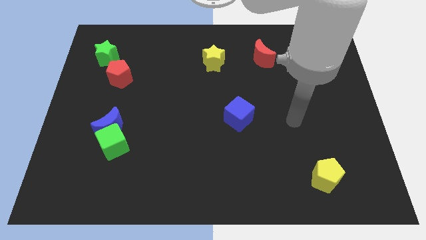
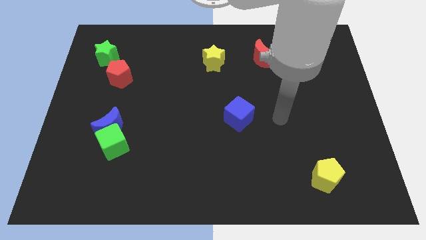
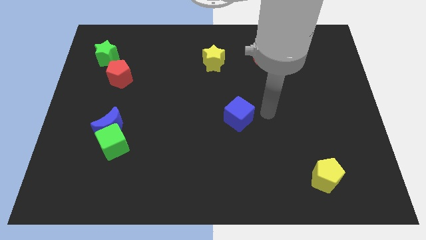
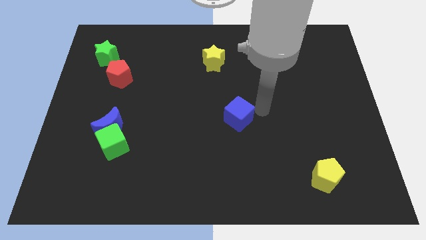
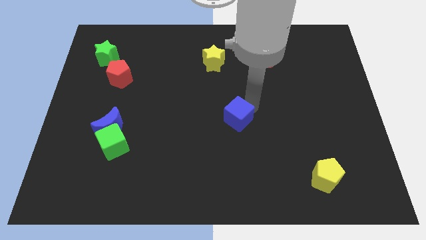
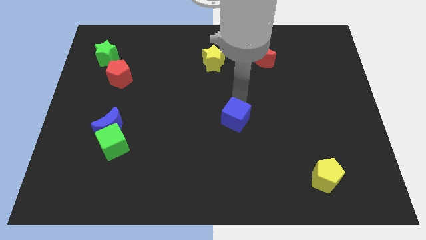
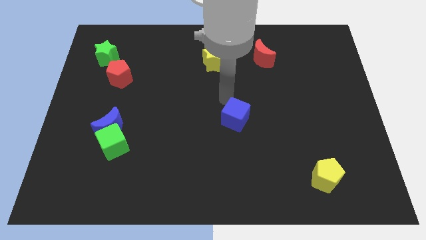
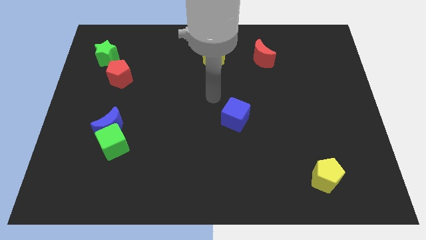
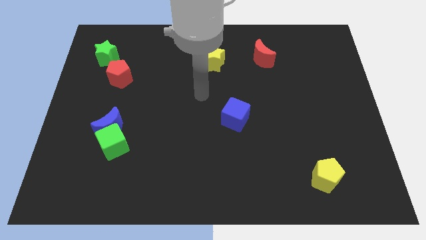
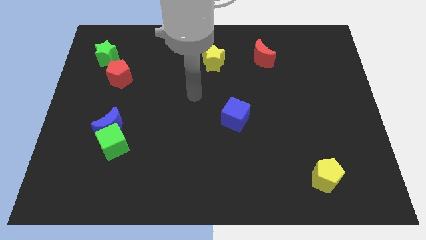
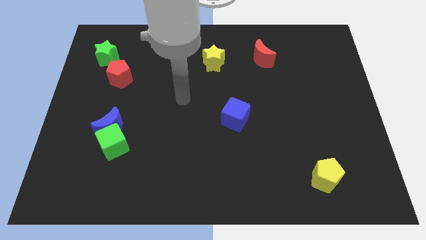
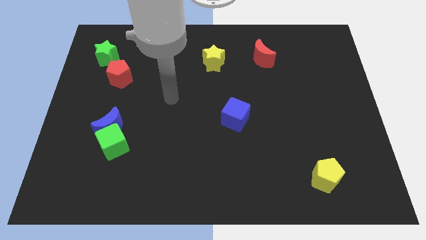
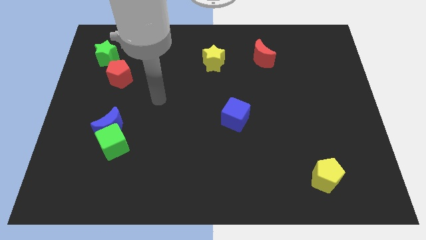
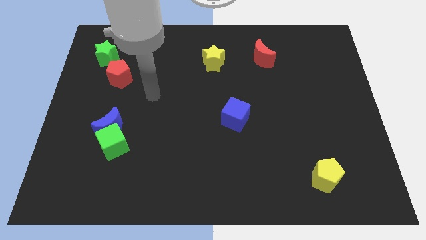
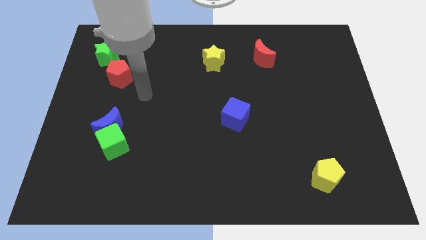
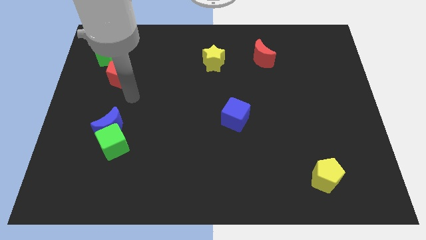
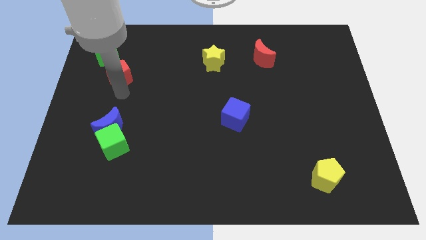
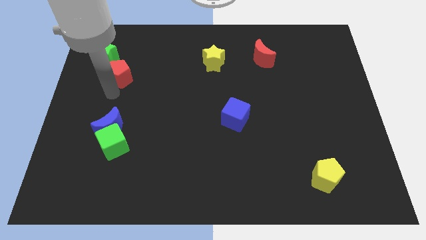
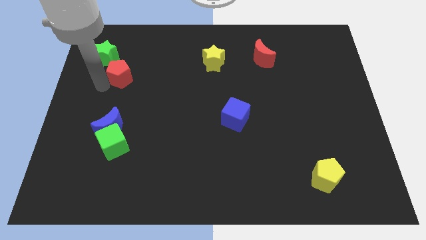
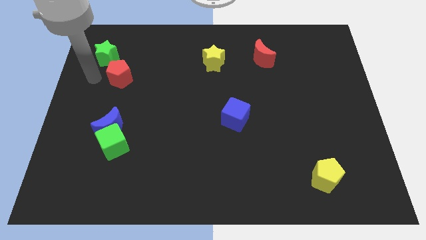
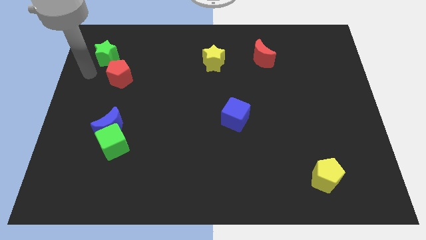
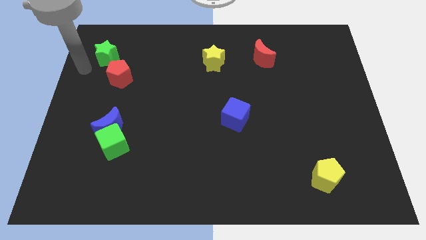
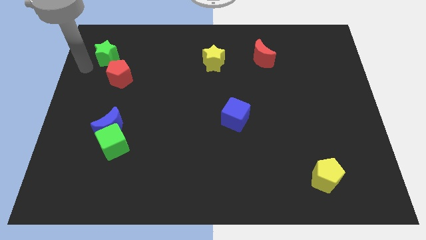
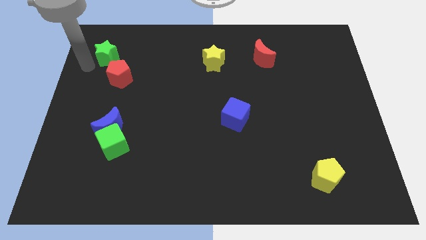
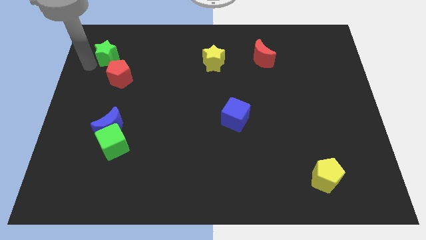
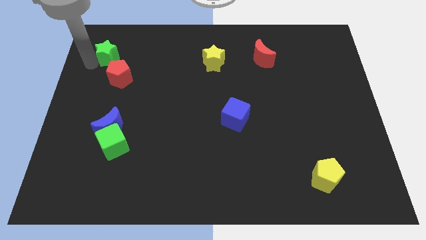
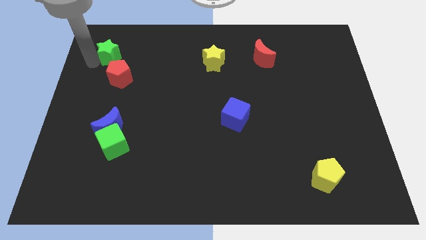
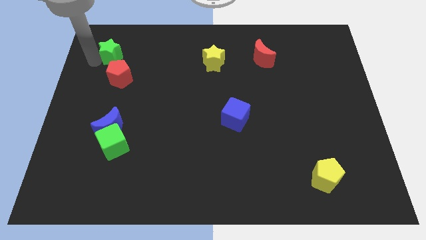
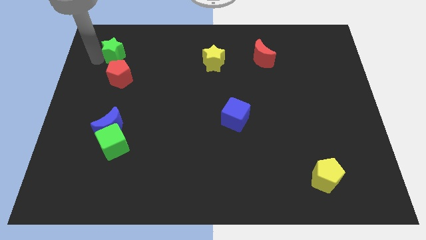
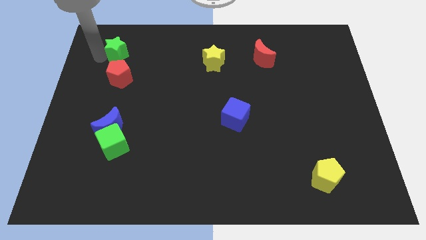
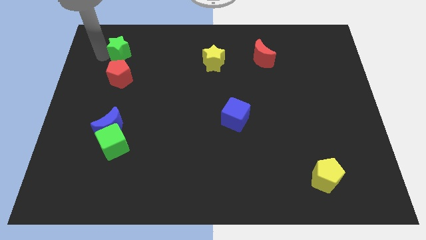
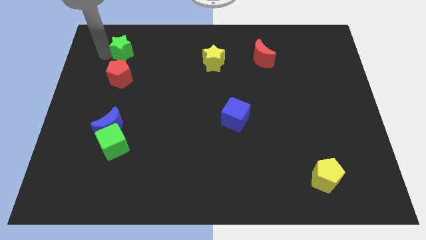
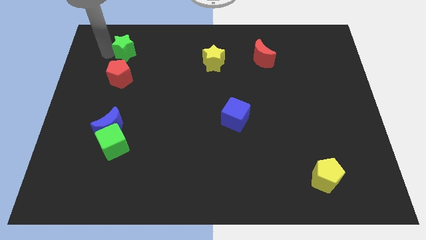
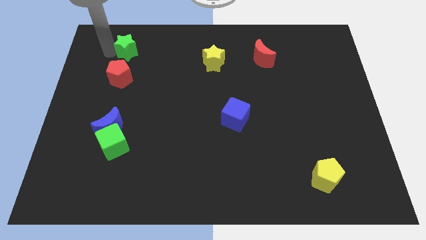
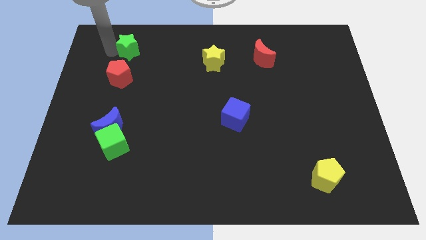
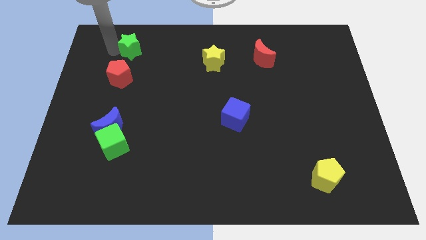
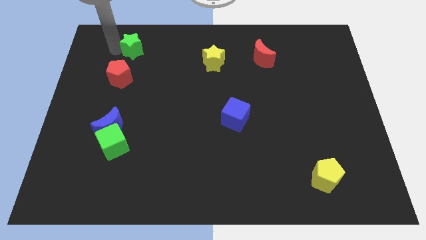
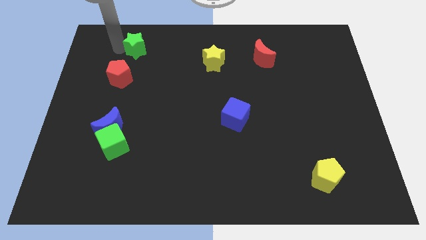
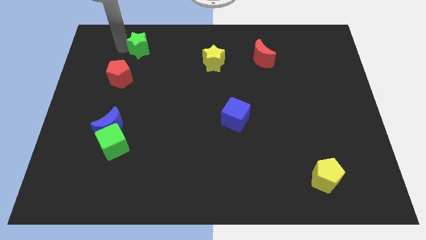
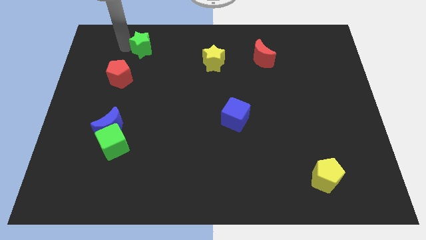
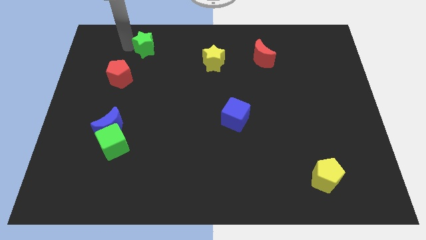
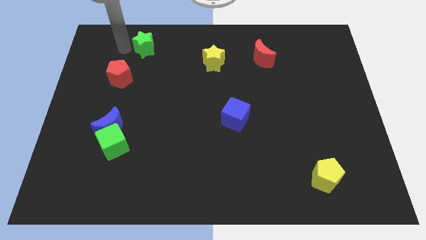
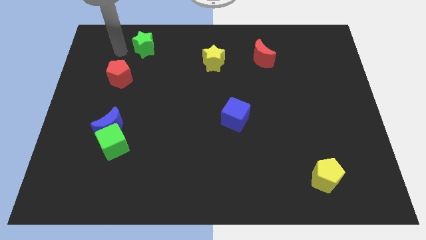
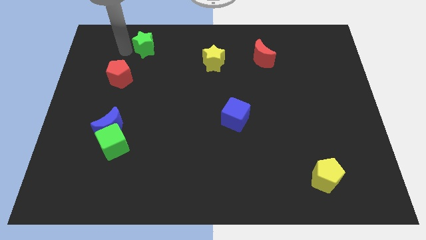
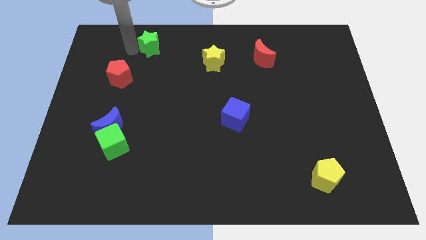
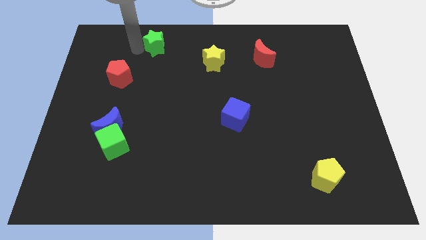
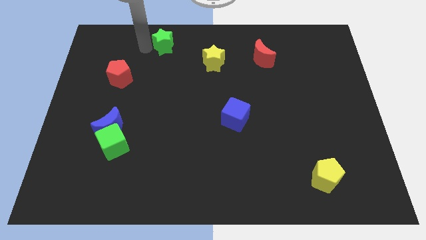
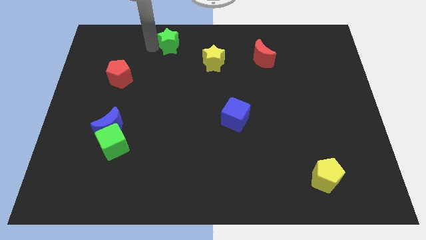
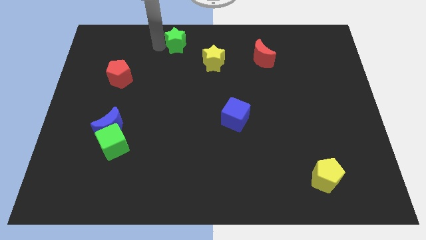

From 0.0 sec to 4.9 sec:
push the green star to the towards your base

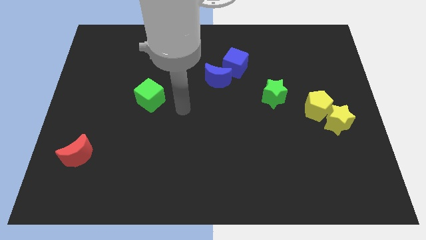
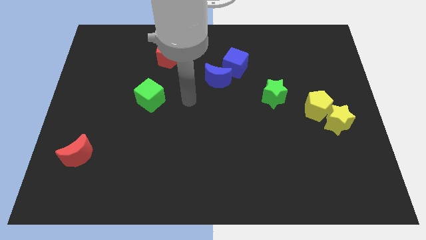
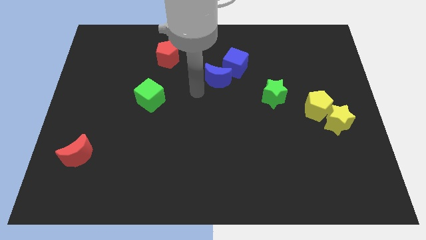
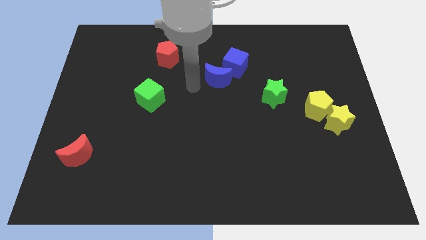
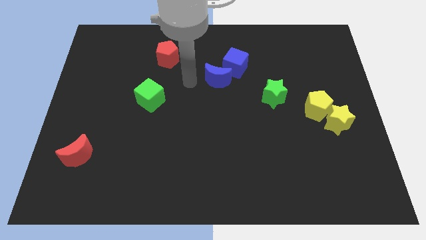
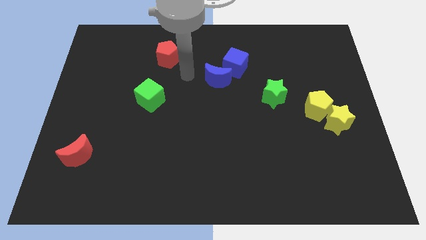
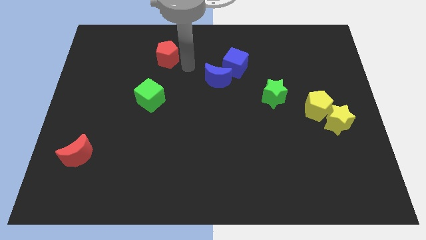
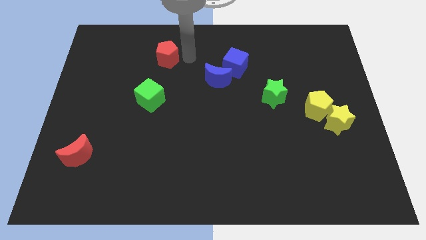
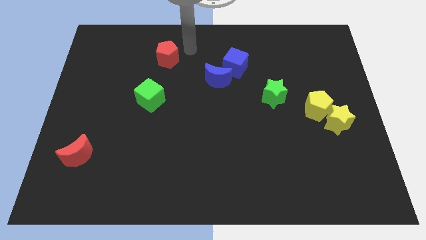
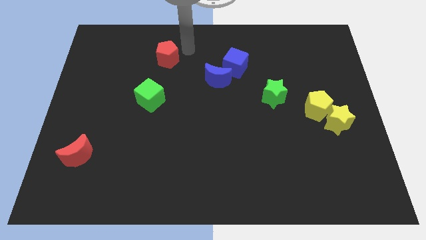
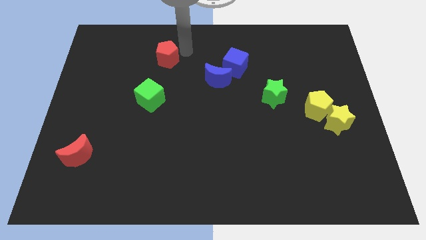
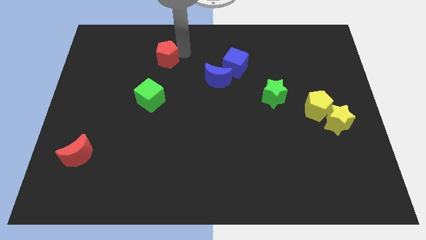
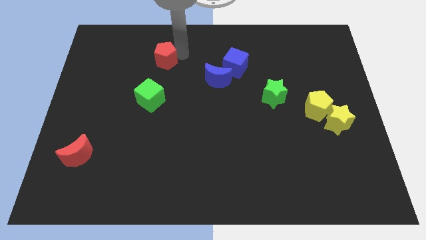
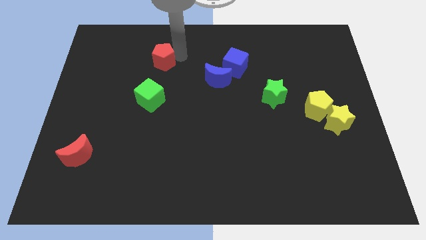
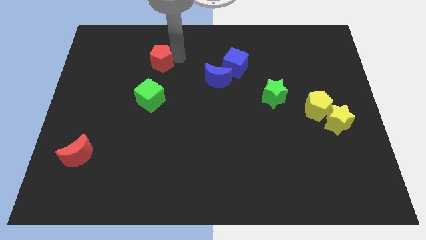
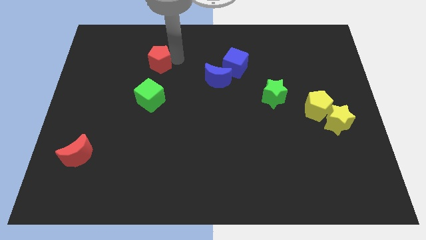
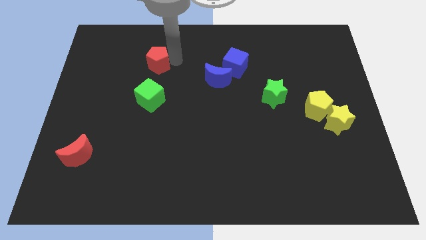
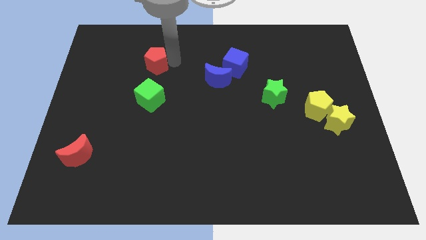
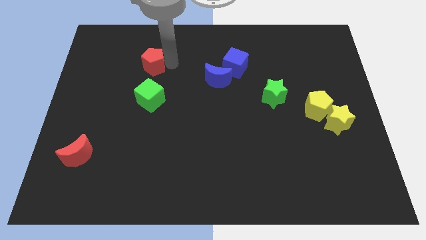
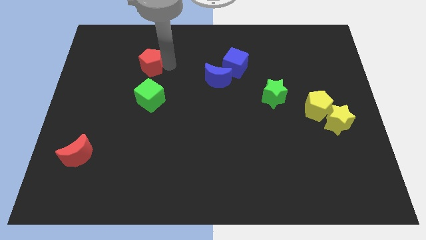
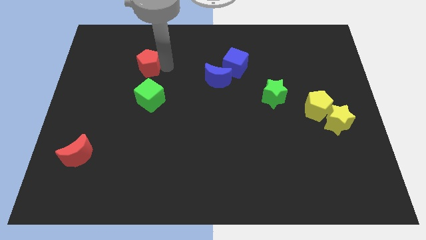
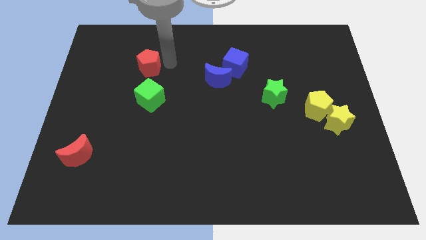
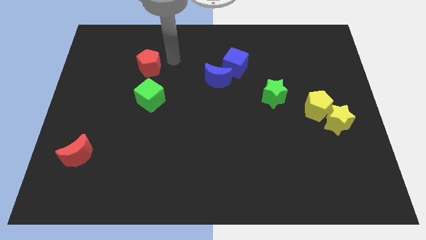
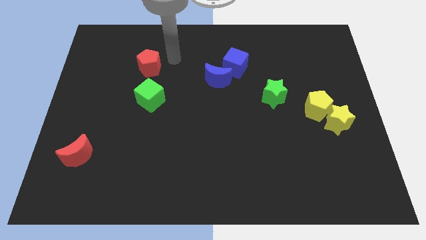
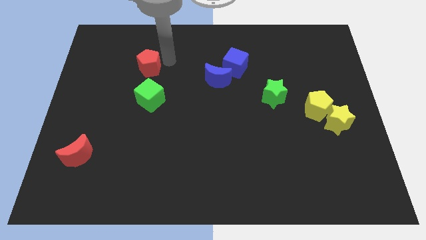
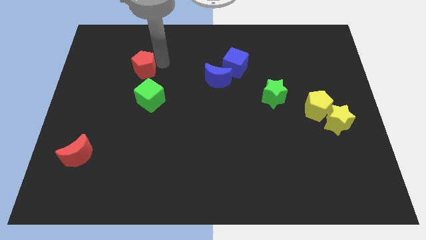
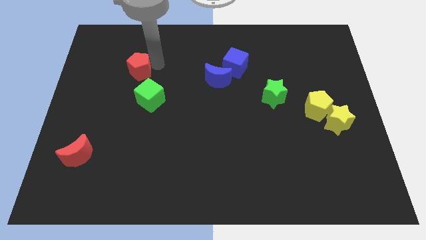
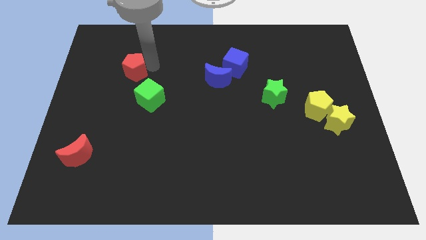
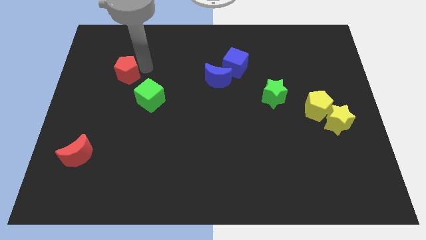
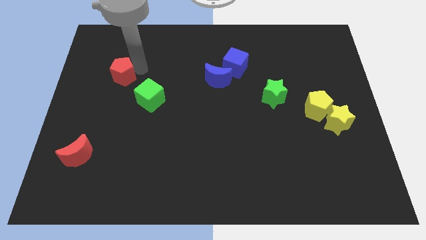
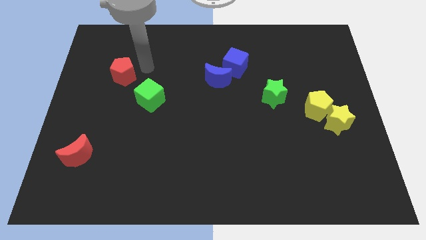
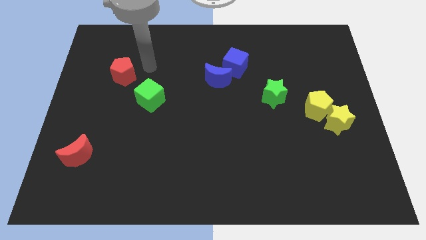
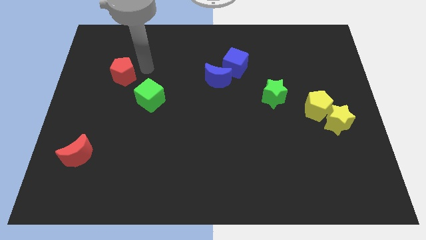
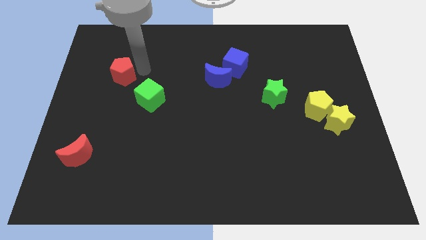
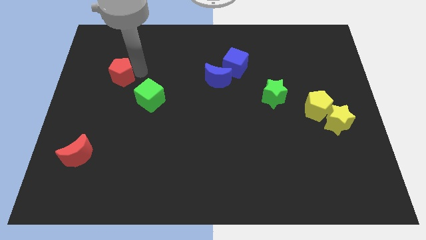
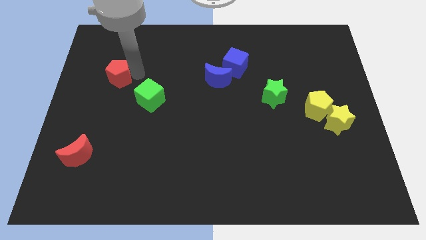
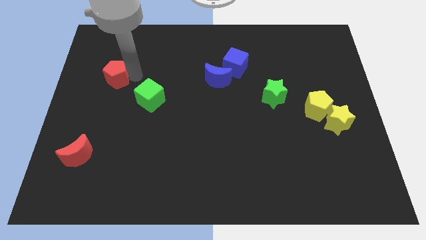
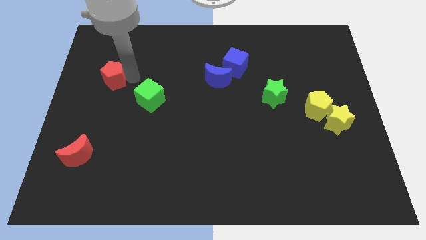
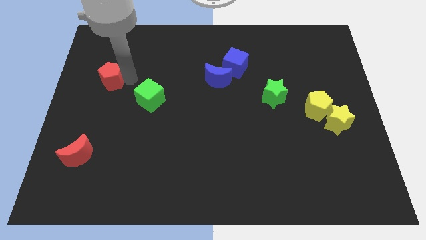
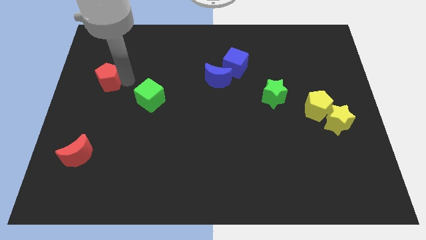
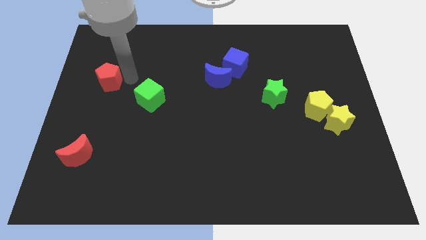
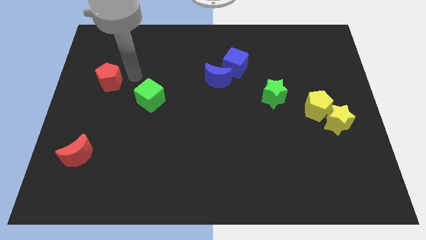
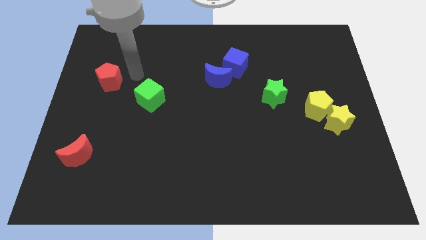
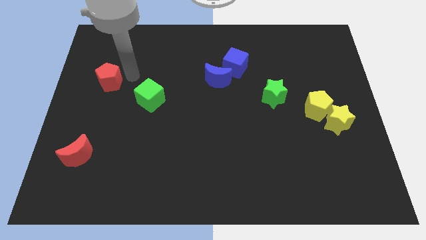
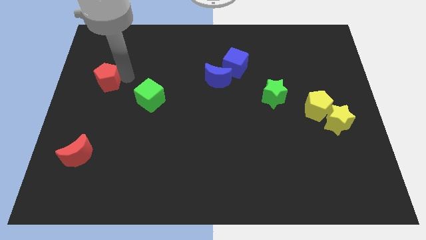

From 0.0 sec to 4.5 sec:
push the red pentagon to the left side
